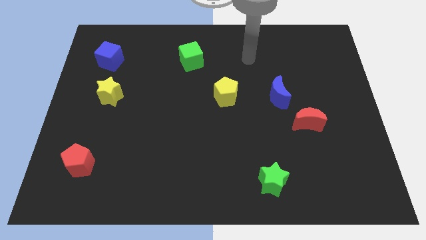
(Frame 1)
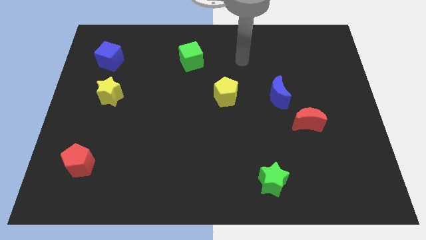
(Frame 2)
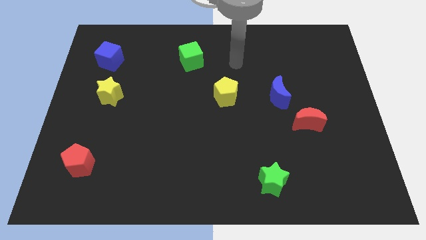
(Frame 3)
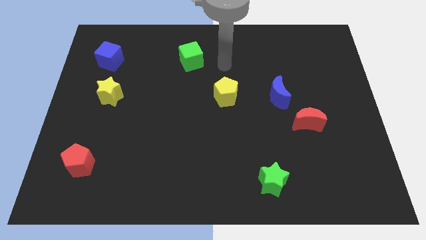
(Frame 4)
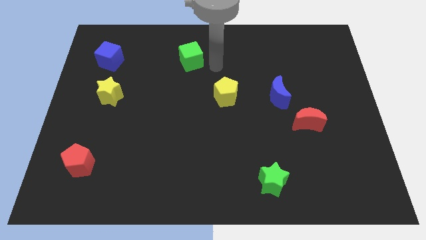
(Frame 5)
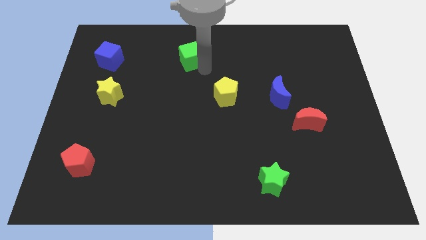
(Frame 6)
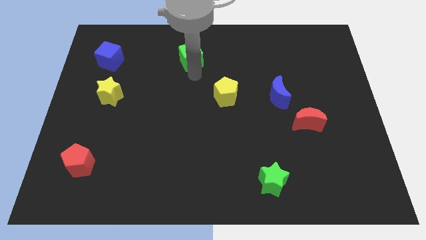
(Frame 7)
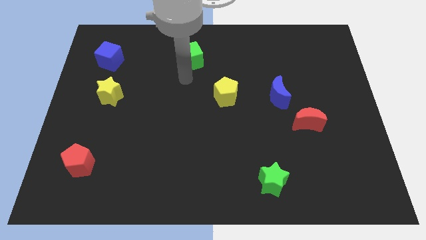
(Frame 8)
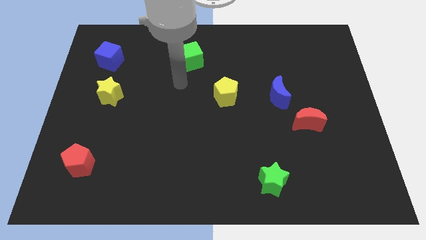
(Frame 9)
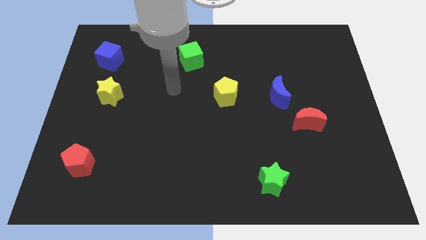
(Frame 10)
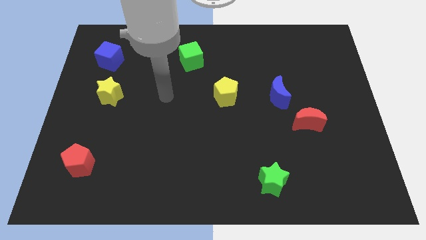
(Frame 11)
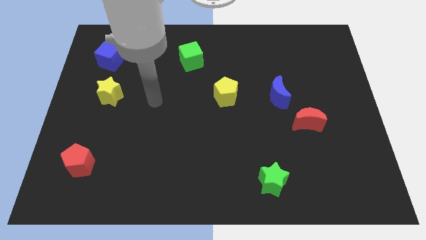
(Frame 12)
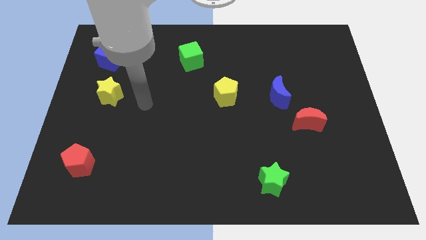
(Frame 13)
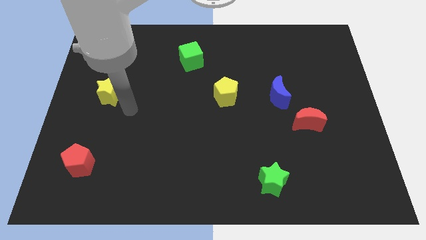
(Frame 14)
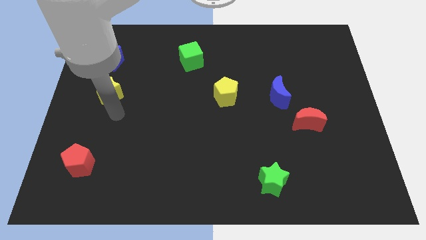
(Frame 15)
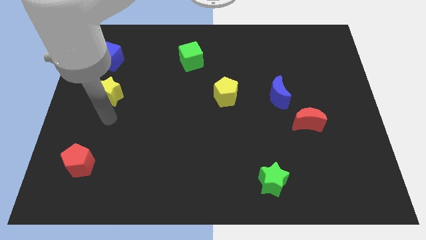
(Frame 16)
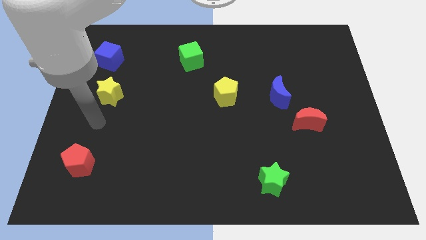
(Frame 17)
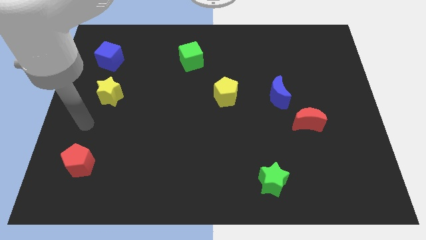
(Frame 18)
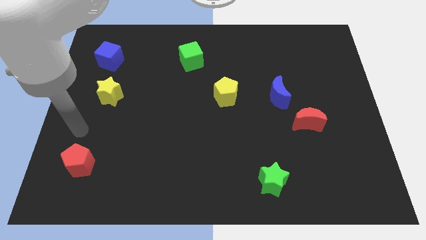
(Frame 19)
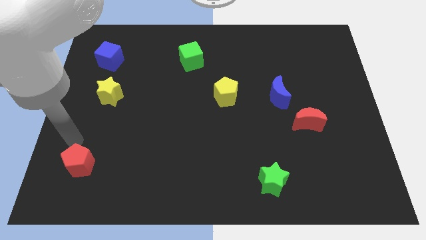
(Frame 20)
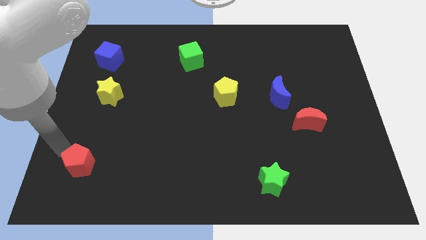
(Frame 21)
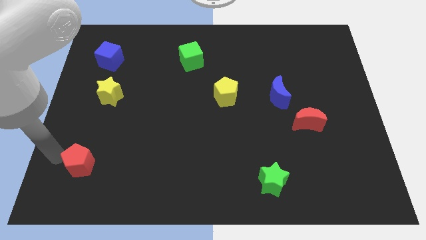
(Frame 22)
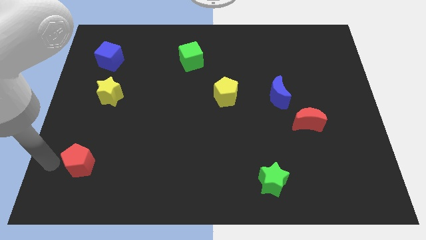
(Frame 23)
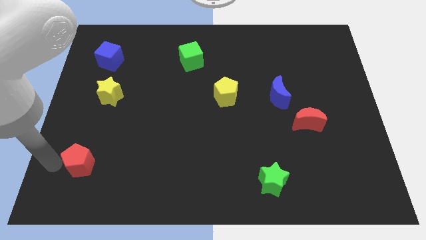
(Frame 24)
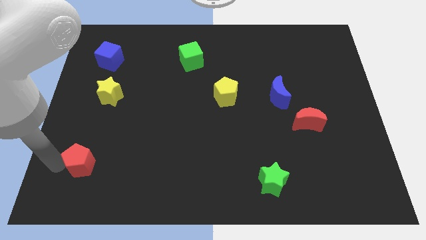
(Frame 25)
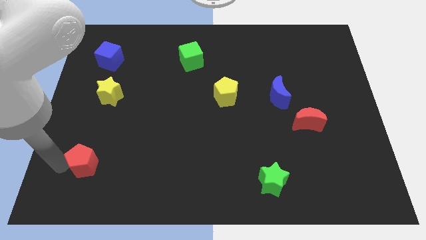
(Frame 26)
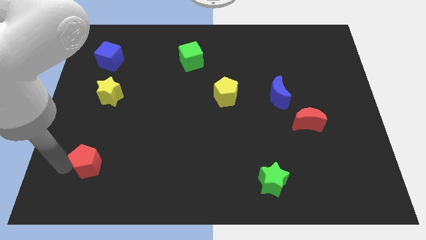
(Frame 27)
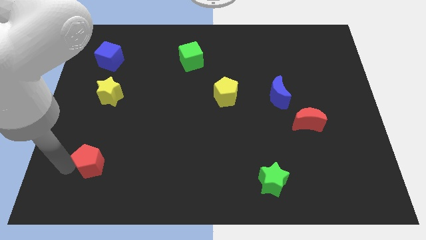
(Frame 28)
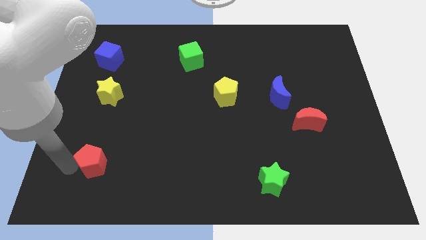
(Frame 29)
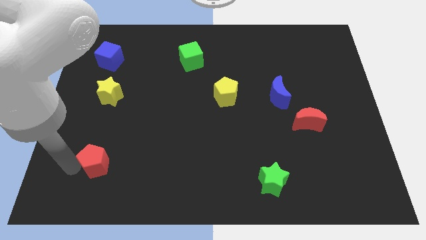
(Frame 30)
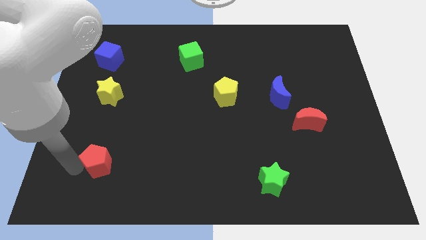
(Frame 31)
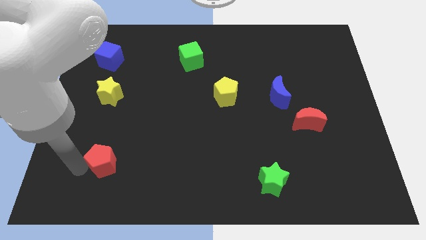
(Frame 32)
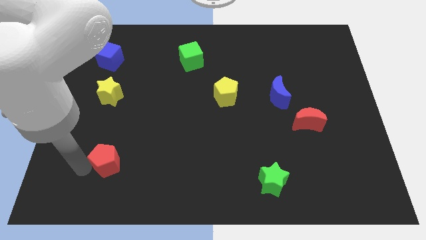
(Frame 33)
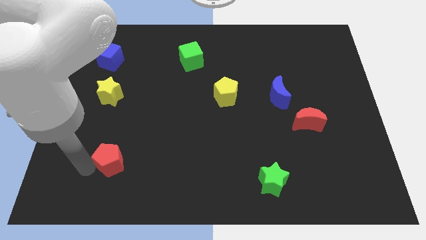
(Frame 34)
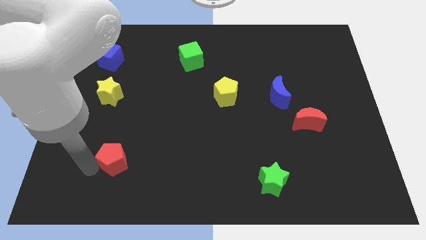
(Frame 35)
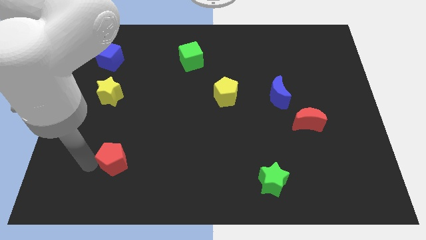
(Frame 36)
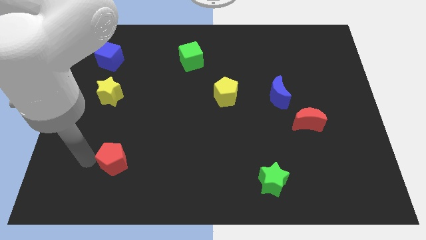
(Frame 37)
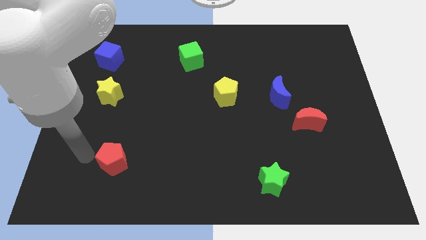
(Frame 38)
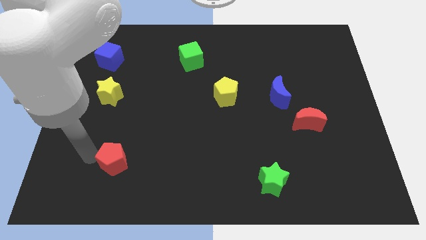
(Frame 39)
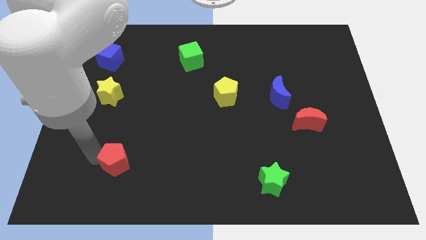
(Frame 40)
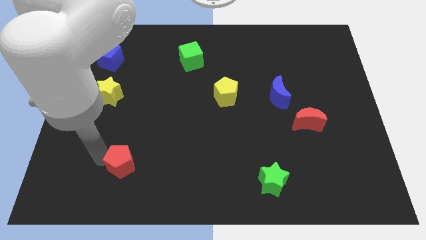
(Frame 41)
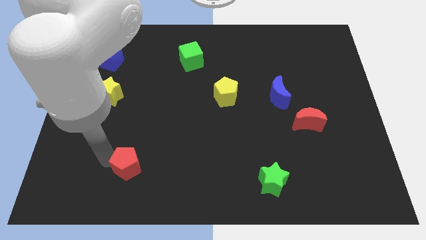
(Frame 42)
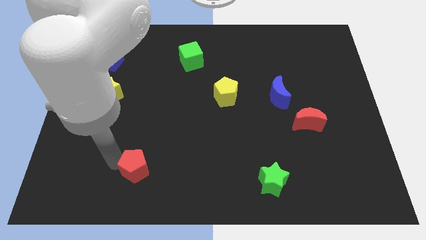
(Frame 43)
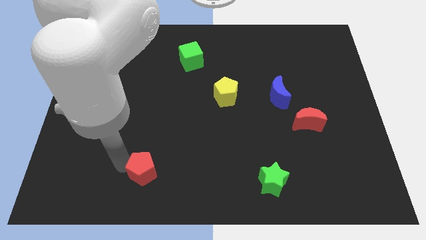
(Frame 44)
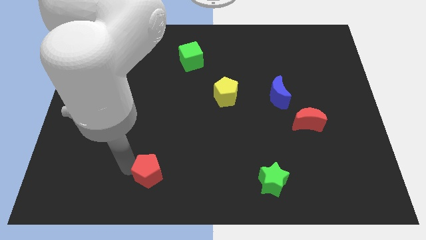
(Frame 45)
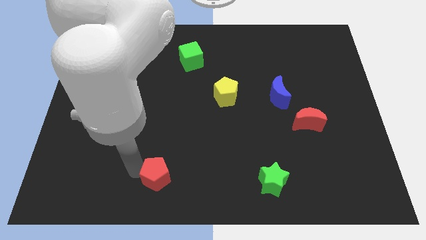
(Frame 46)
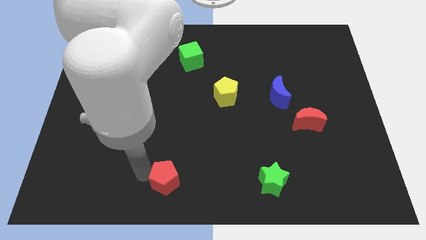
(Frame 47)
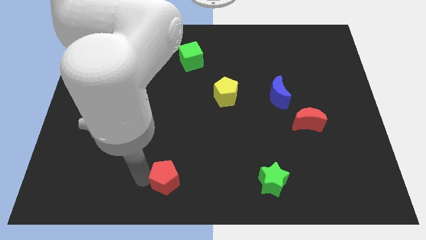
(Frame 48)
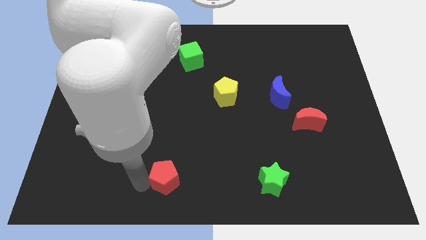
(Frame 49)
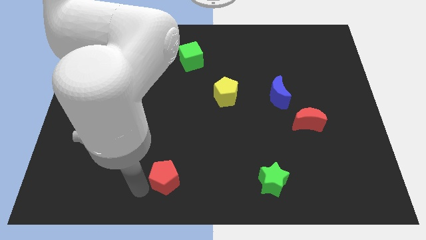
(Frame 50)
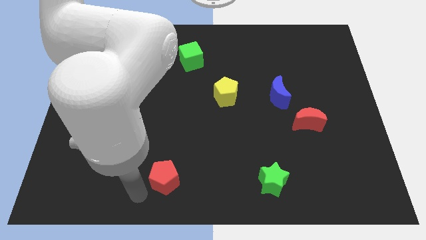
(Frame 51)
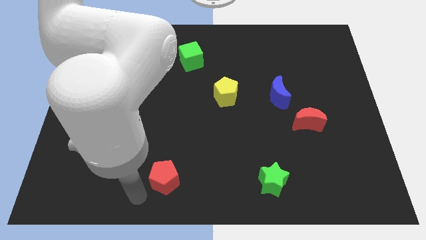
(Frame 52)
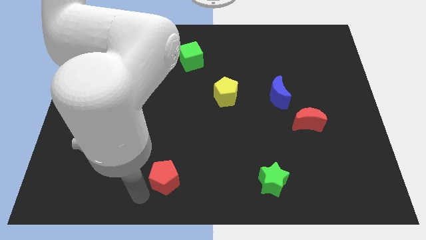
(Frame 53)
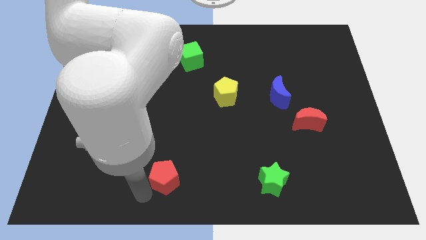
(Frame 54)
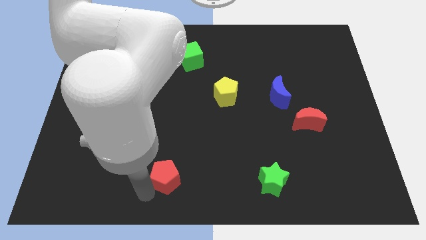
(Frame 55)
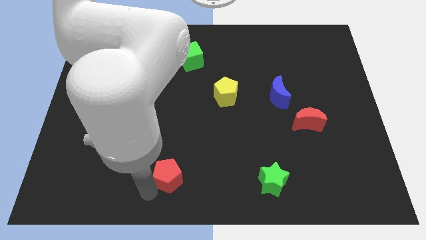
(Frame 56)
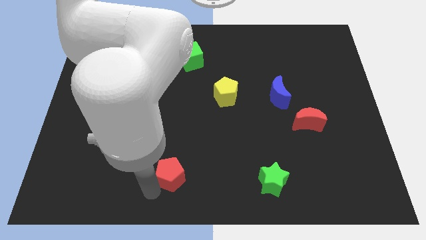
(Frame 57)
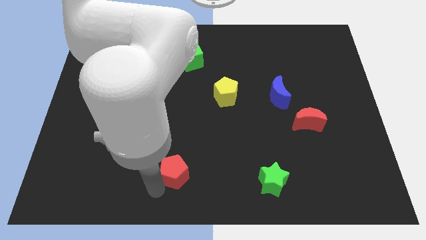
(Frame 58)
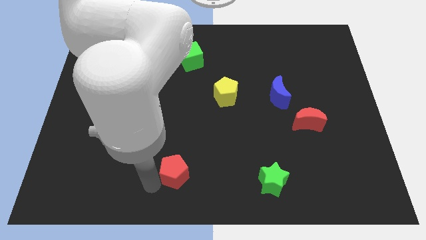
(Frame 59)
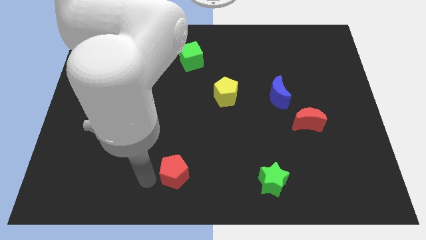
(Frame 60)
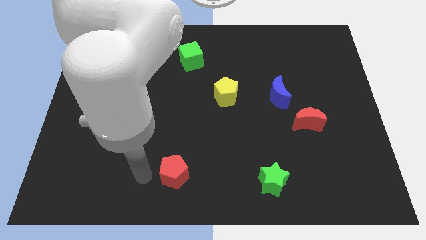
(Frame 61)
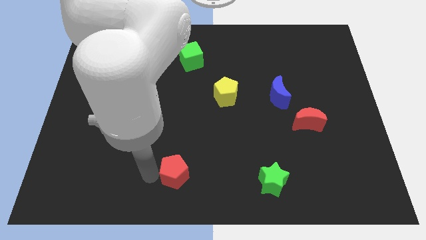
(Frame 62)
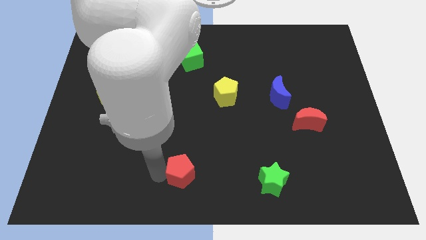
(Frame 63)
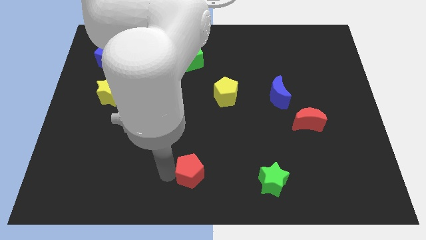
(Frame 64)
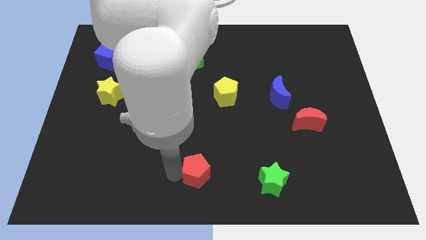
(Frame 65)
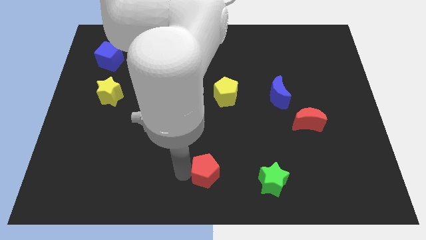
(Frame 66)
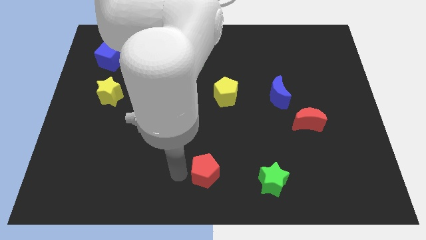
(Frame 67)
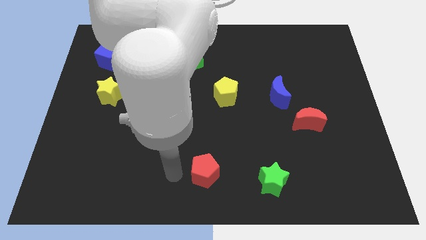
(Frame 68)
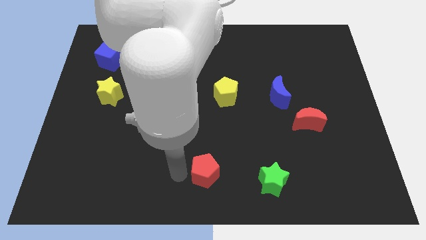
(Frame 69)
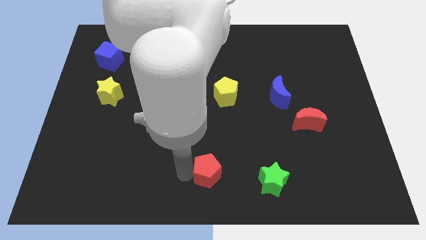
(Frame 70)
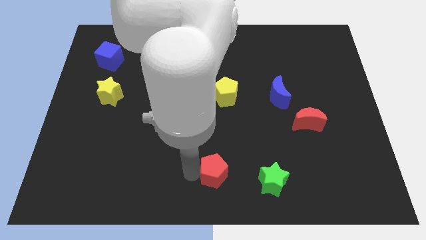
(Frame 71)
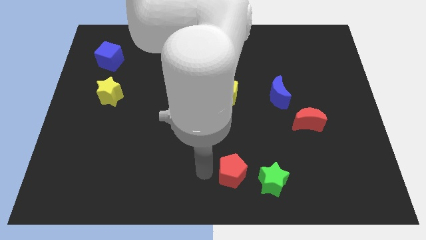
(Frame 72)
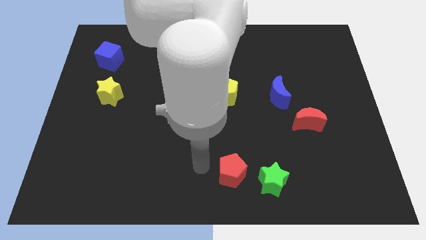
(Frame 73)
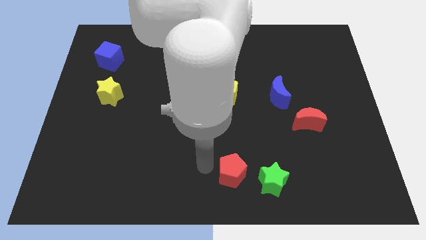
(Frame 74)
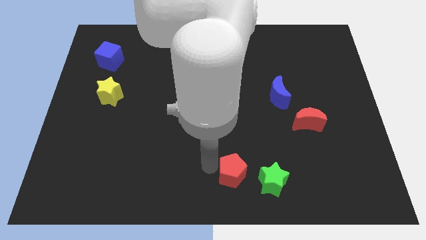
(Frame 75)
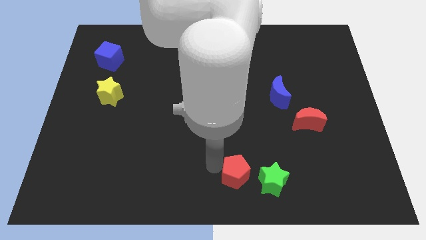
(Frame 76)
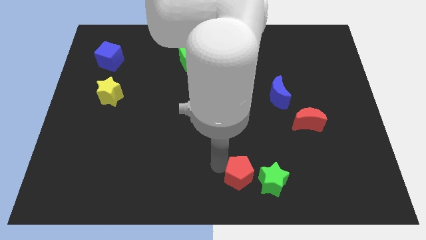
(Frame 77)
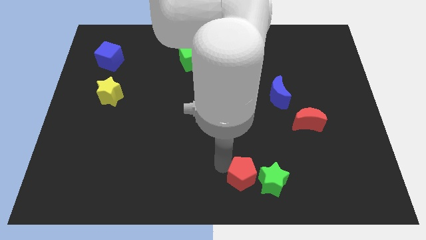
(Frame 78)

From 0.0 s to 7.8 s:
move the red pentagon towards the green star
